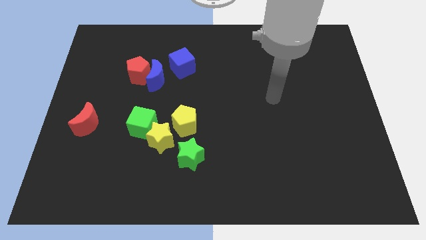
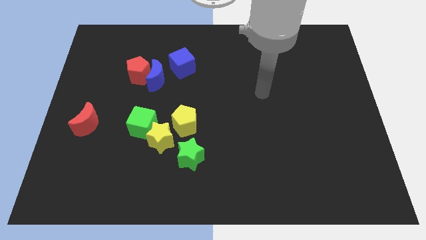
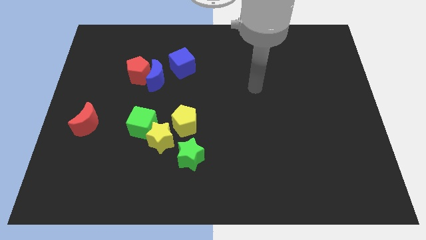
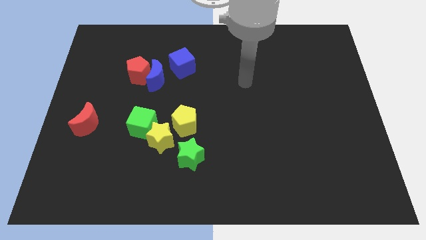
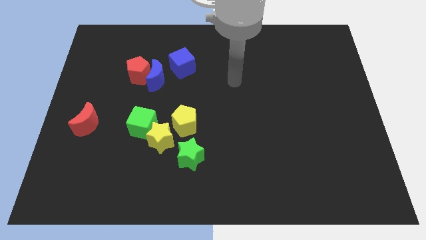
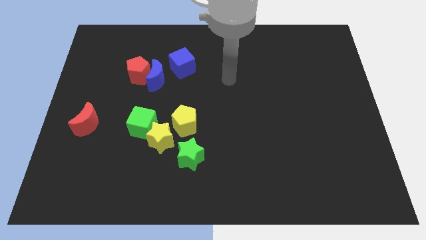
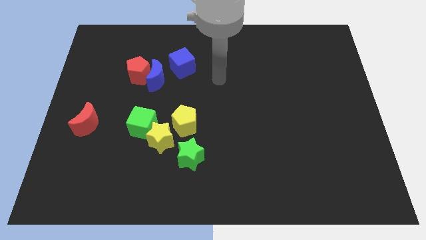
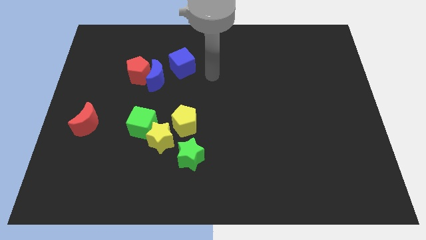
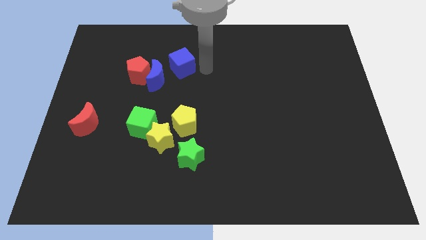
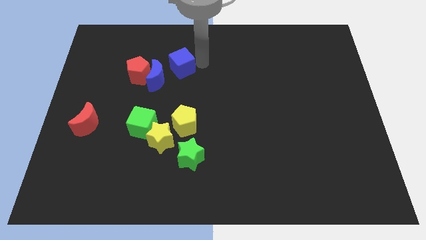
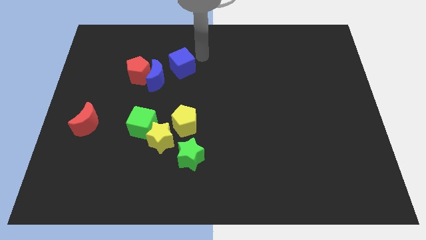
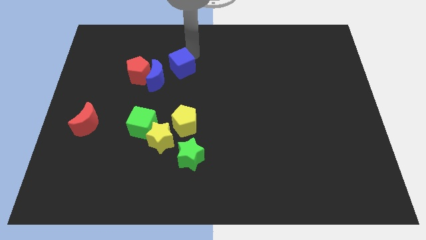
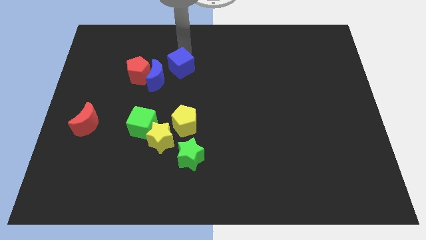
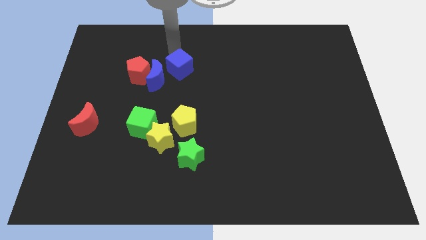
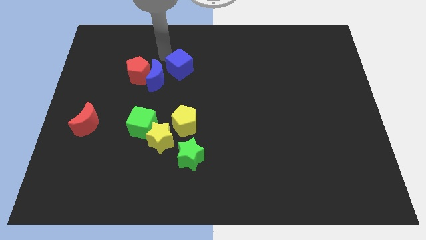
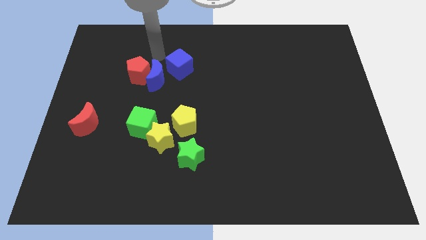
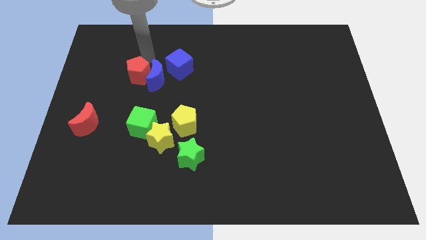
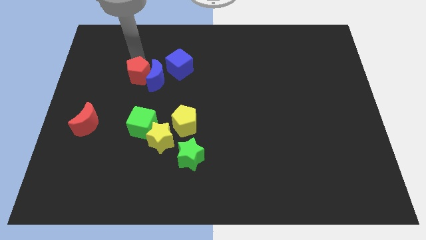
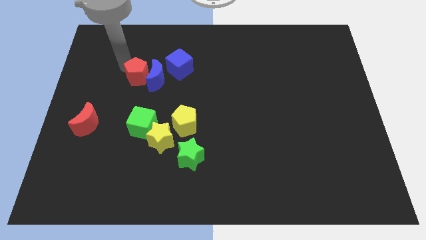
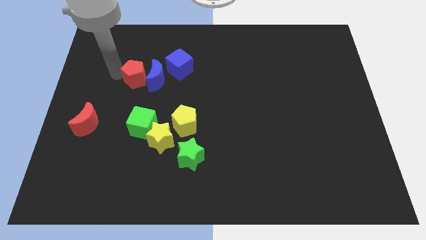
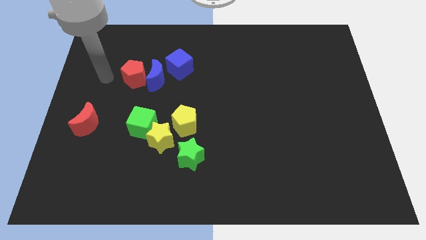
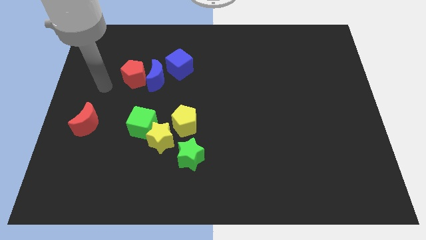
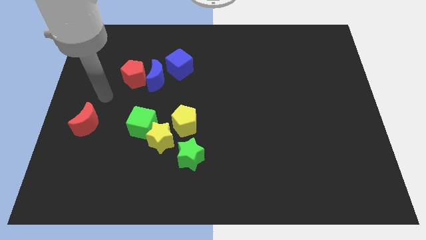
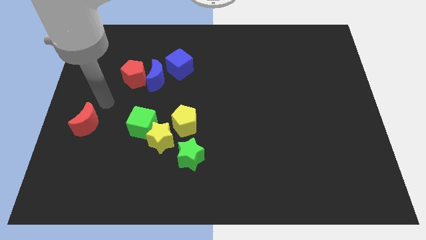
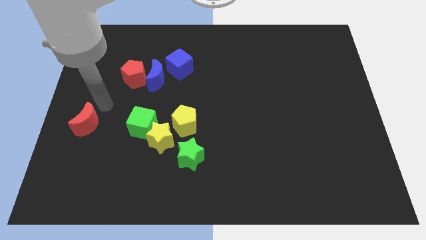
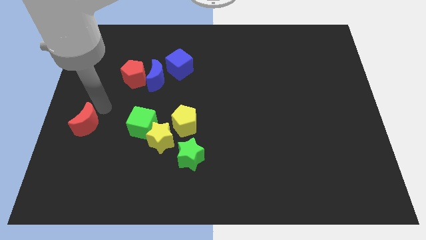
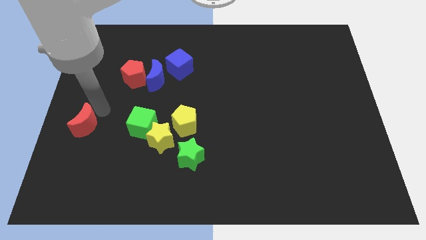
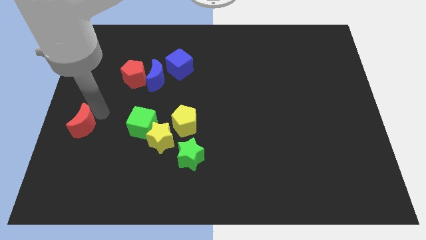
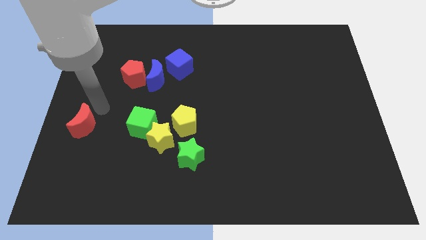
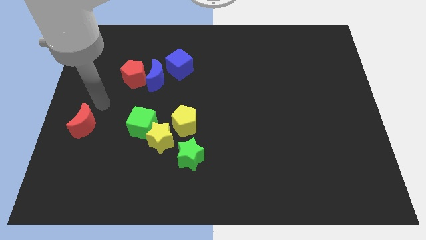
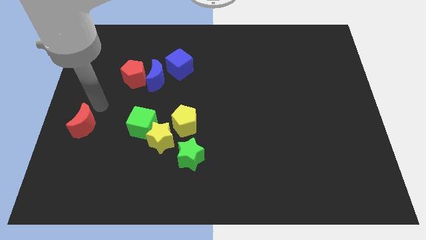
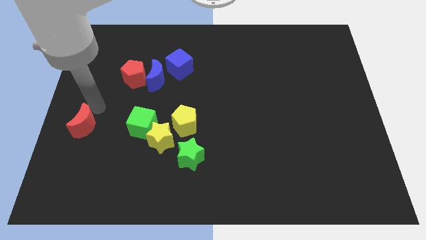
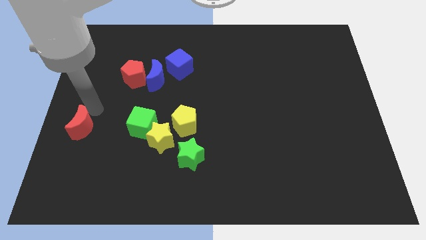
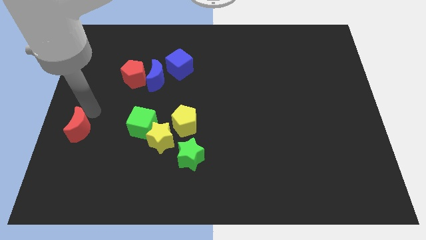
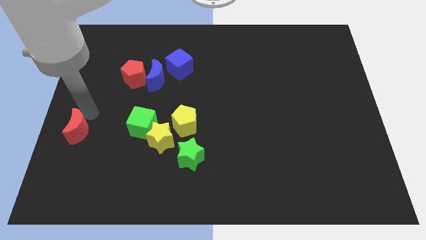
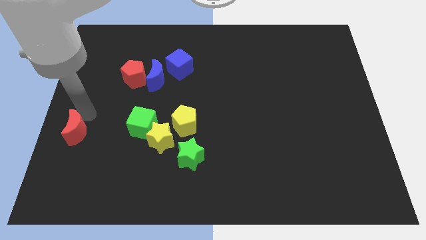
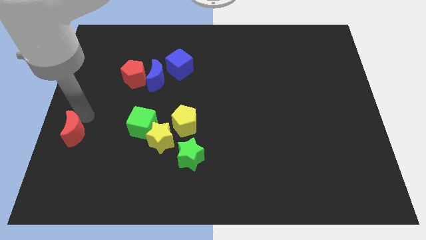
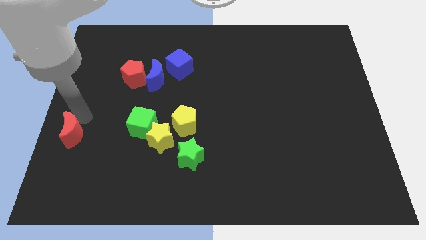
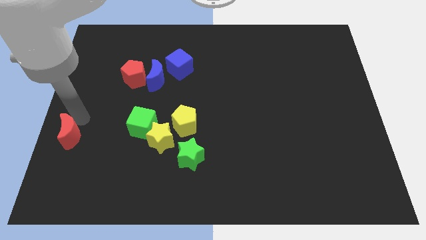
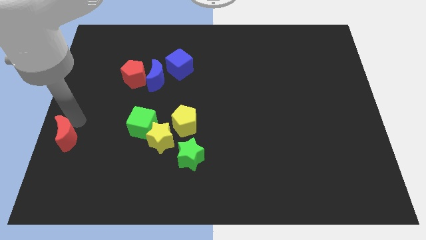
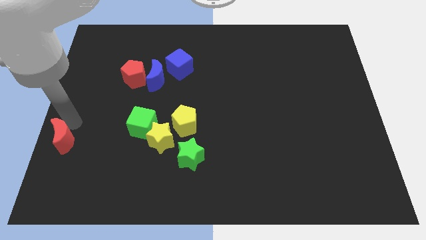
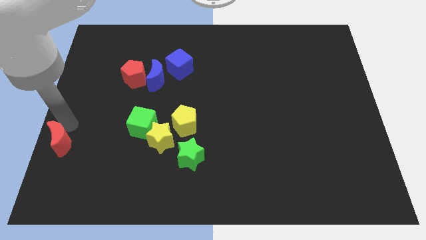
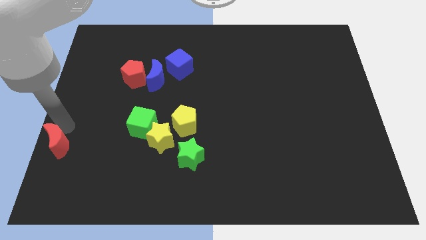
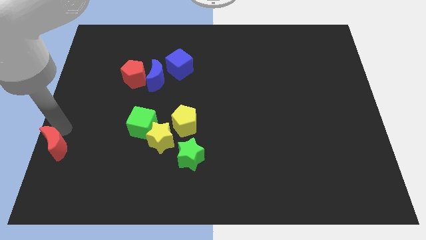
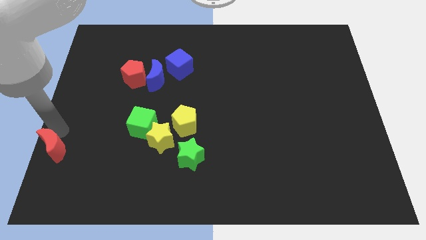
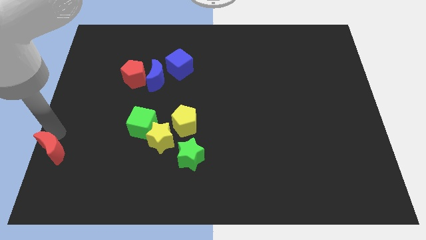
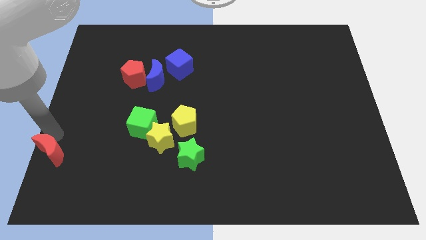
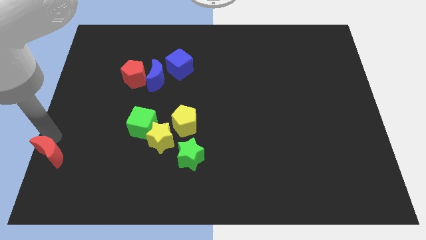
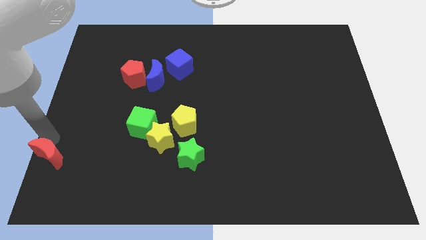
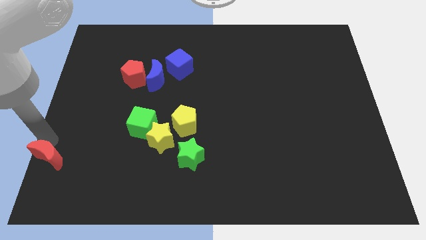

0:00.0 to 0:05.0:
put the red moon to the bottom left corner

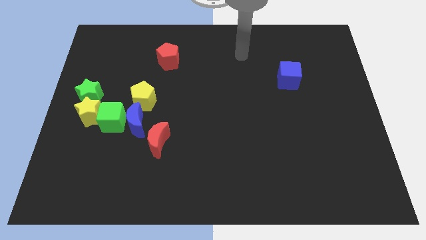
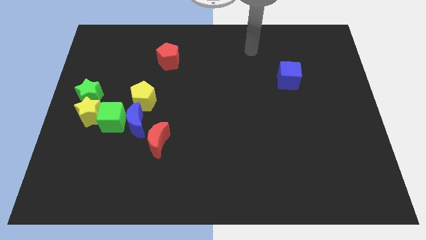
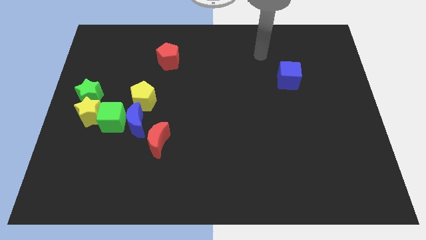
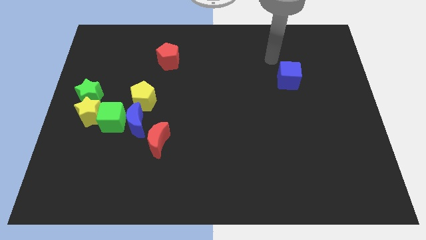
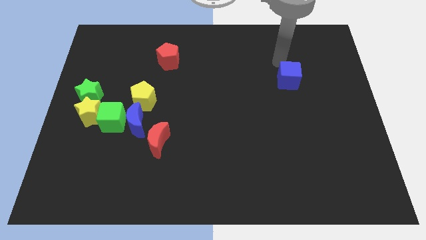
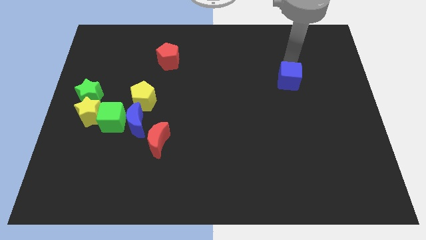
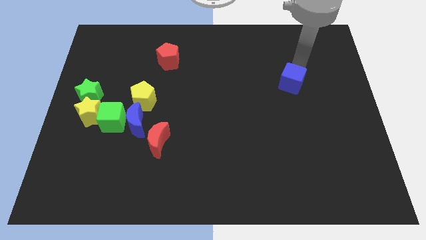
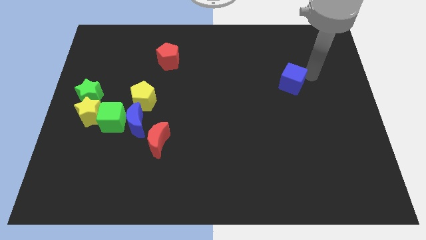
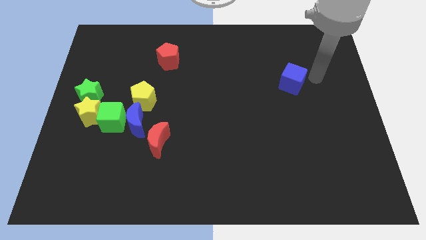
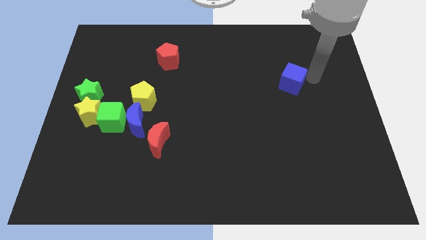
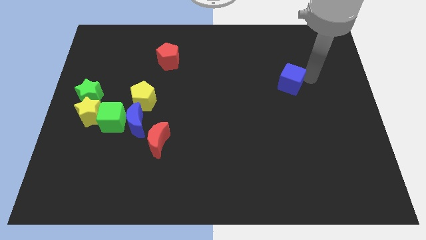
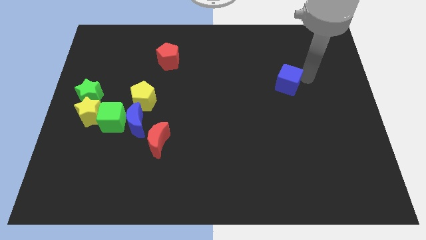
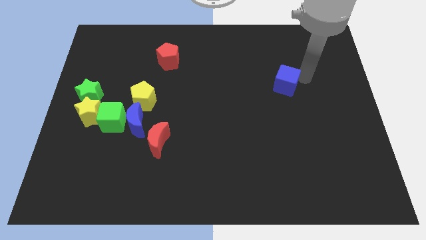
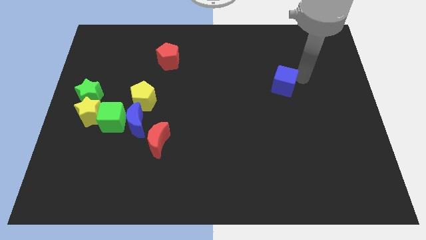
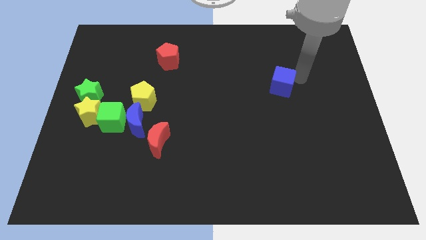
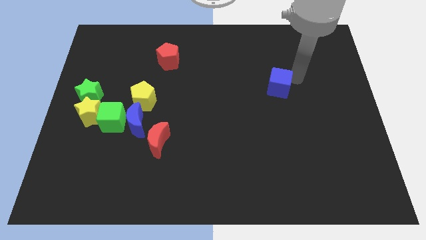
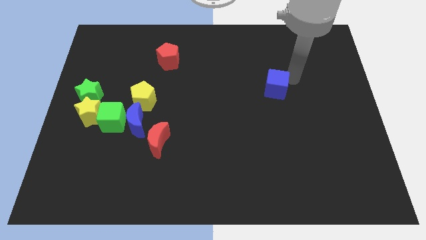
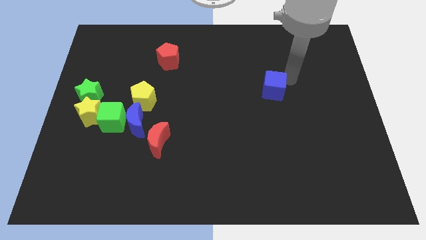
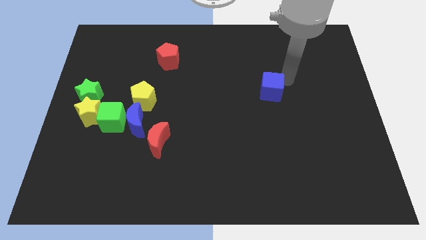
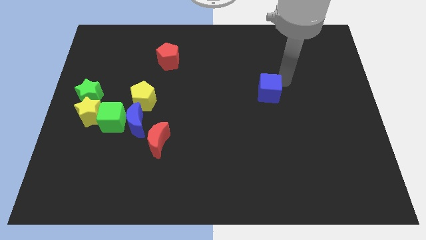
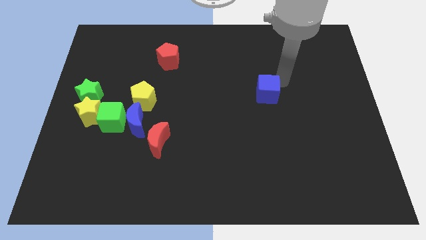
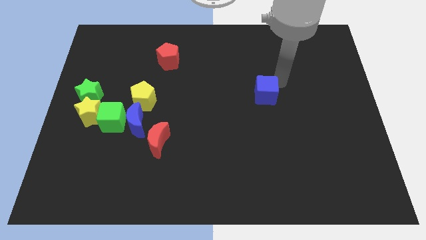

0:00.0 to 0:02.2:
slide the blue cube to the middle of the board
